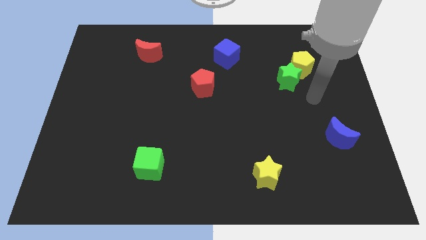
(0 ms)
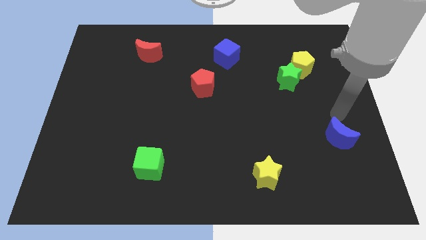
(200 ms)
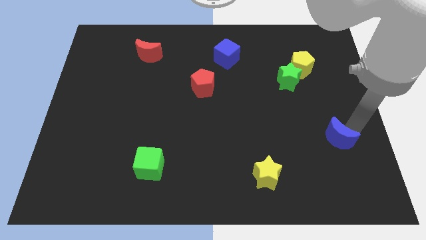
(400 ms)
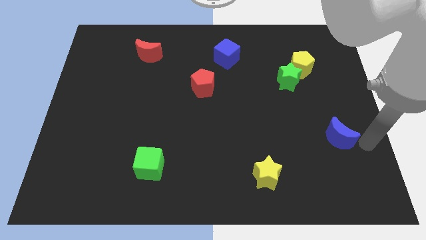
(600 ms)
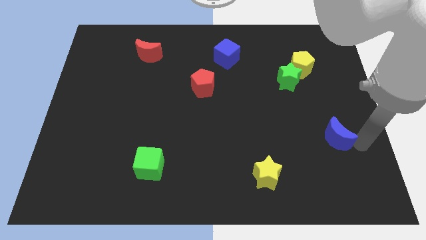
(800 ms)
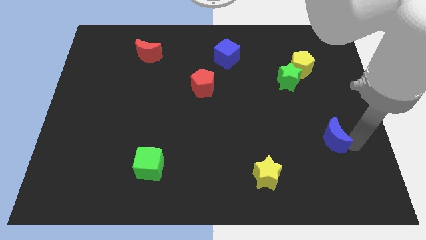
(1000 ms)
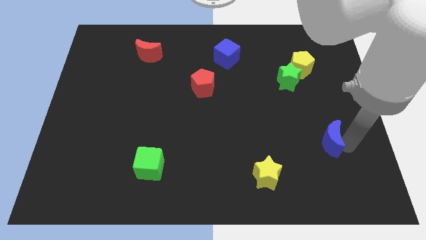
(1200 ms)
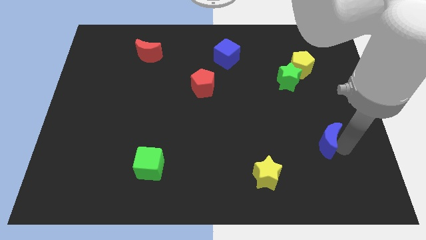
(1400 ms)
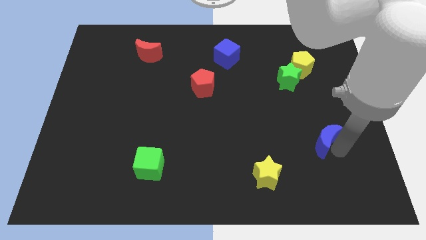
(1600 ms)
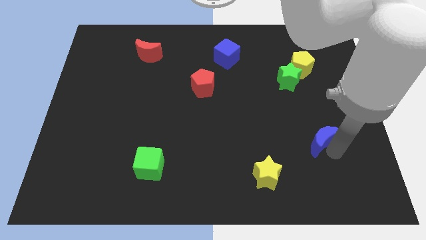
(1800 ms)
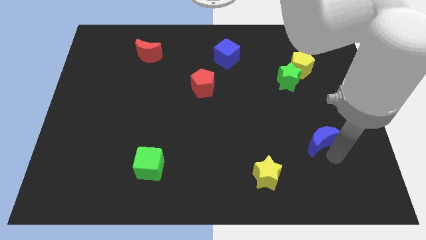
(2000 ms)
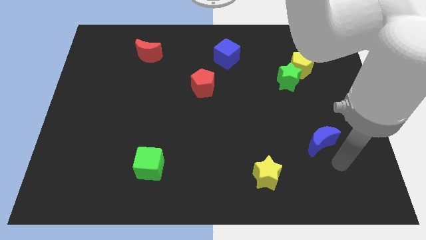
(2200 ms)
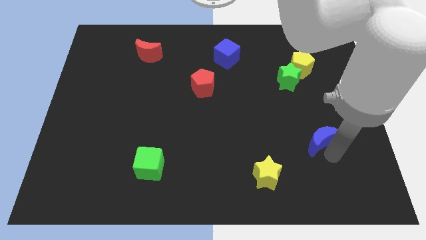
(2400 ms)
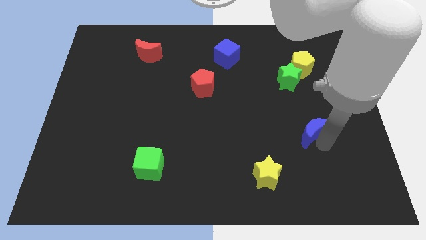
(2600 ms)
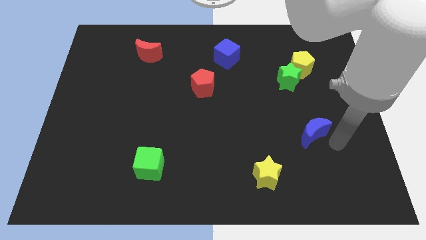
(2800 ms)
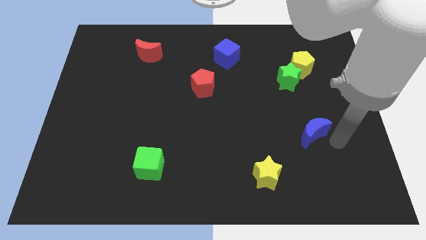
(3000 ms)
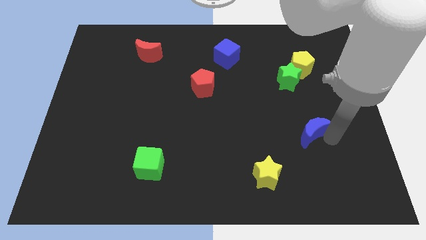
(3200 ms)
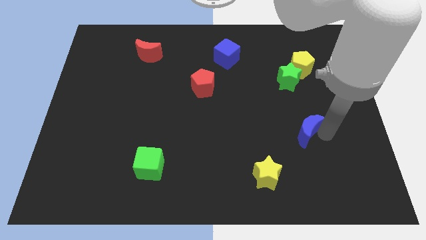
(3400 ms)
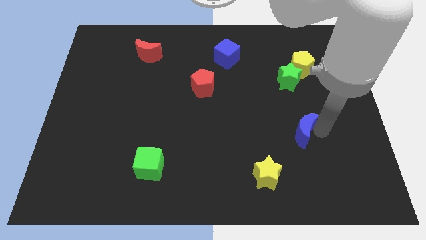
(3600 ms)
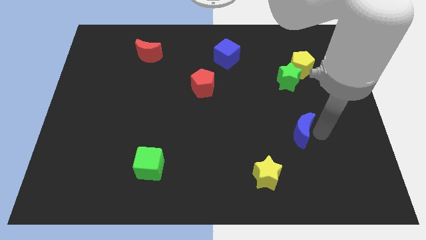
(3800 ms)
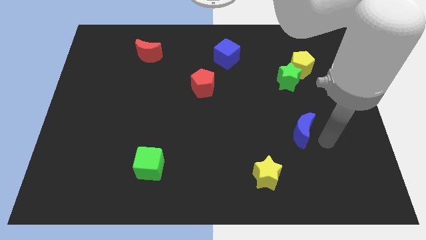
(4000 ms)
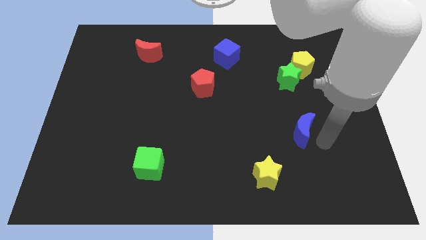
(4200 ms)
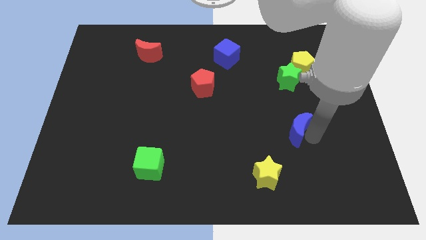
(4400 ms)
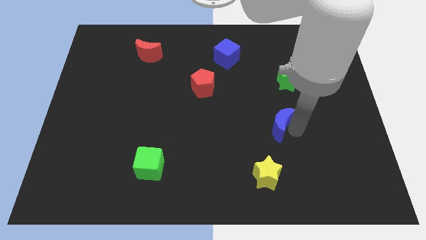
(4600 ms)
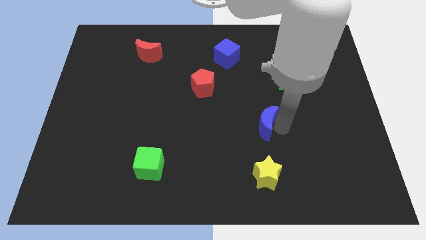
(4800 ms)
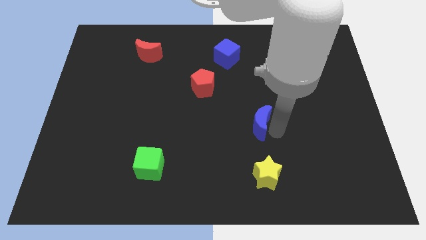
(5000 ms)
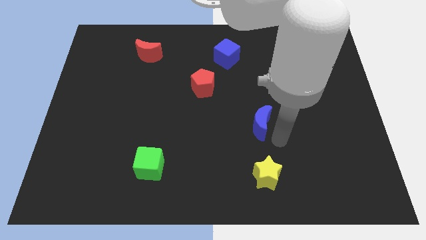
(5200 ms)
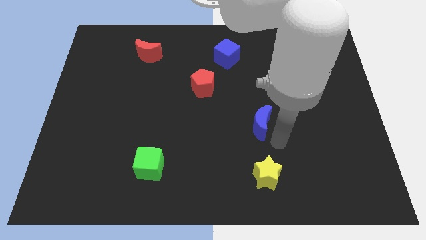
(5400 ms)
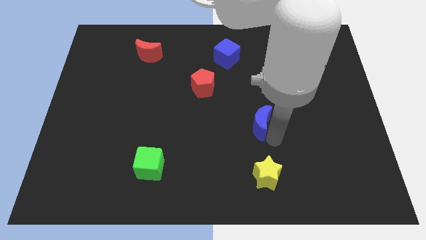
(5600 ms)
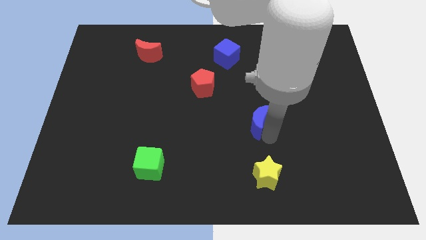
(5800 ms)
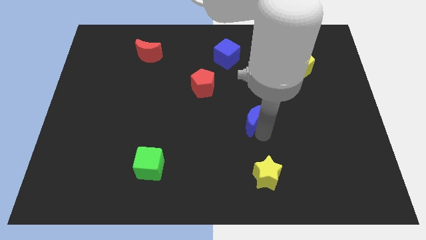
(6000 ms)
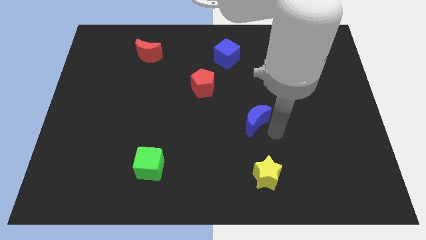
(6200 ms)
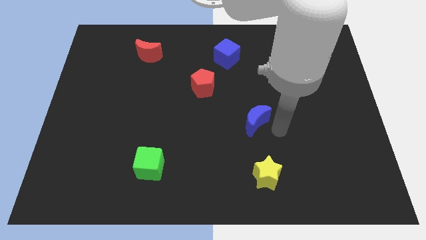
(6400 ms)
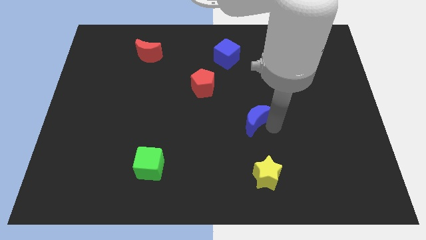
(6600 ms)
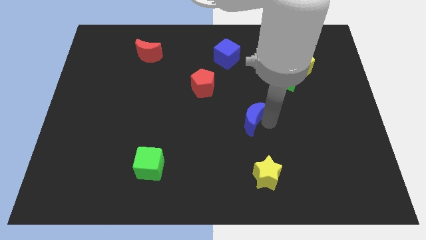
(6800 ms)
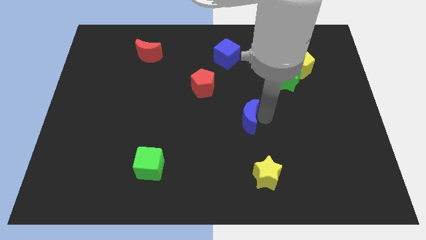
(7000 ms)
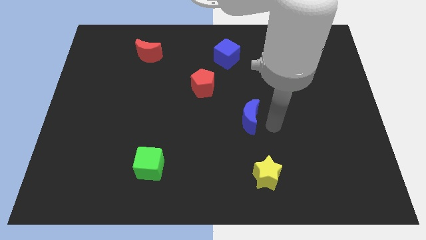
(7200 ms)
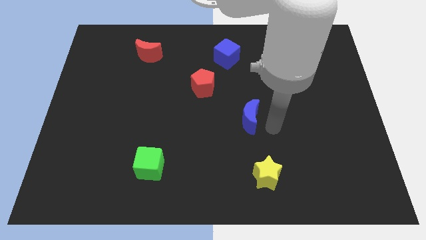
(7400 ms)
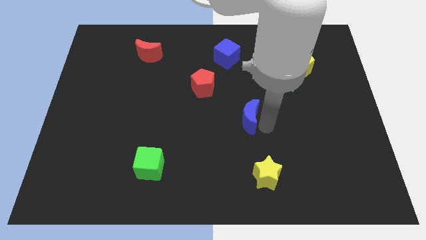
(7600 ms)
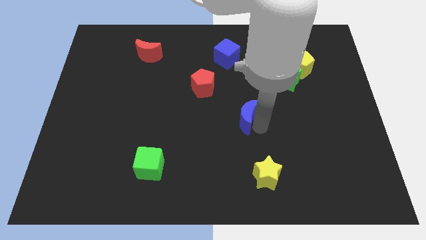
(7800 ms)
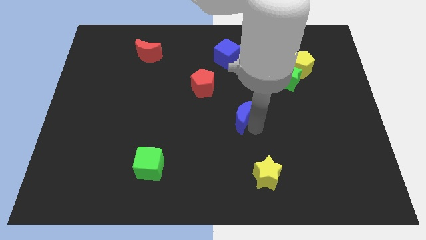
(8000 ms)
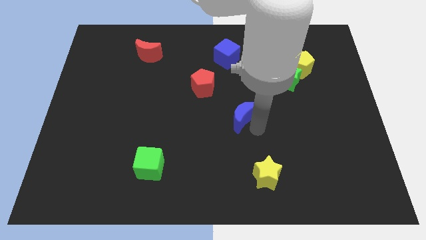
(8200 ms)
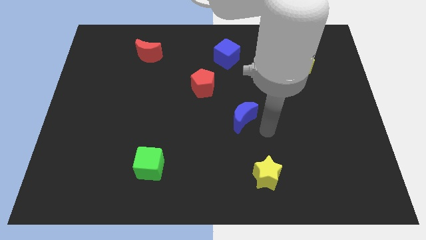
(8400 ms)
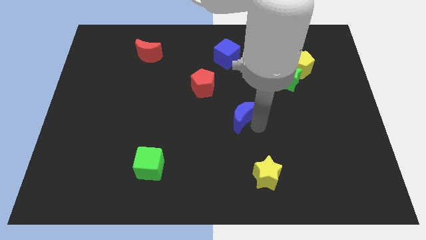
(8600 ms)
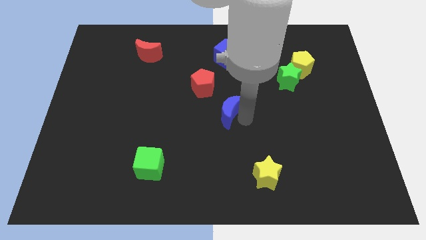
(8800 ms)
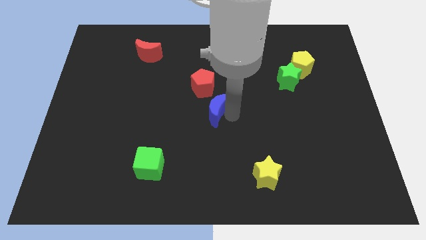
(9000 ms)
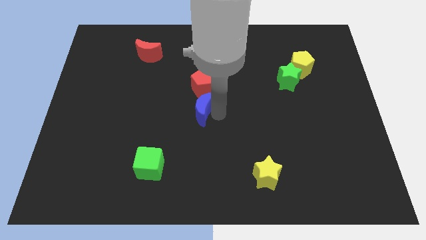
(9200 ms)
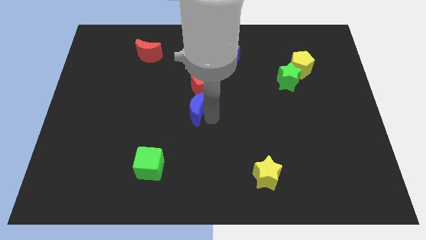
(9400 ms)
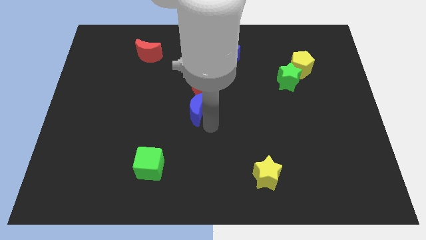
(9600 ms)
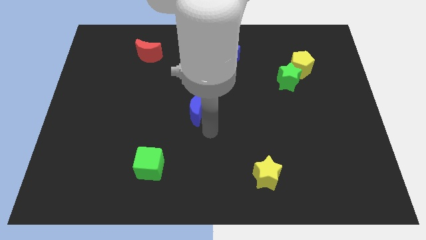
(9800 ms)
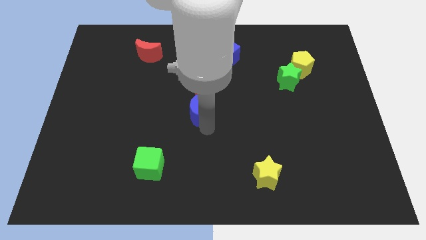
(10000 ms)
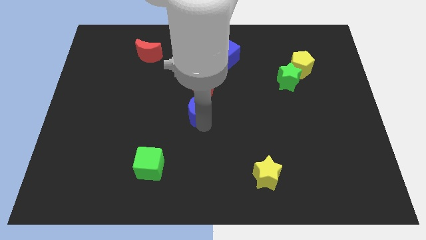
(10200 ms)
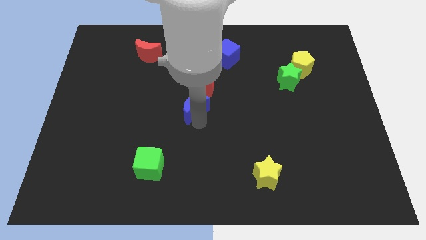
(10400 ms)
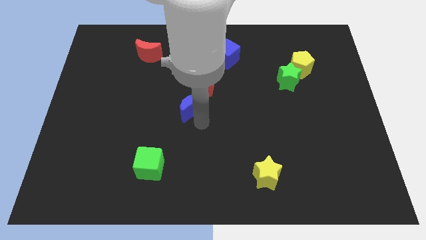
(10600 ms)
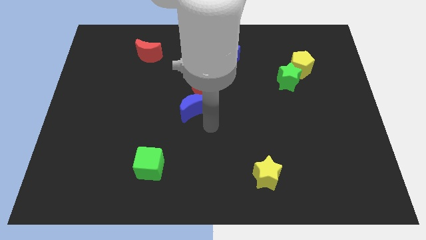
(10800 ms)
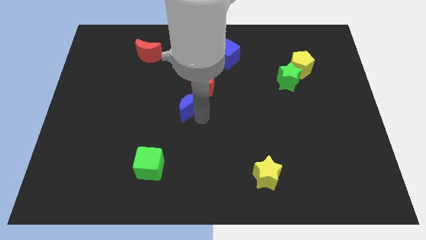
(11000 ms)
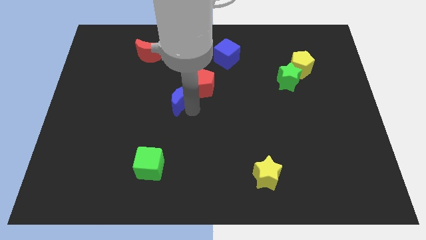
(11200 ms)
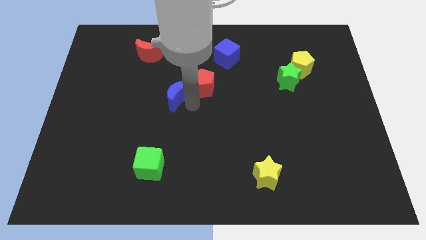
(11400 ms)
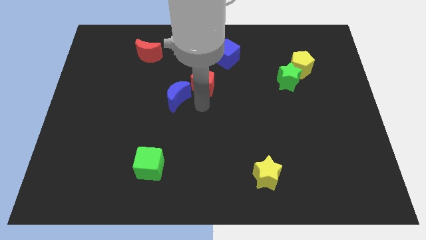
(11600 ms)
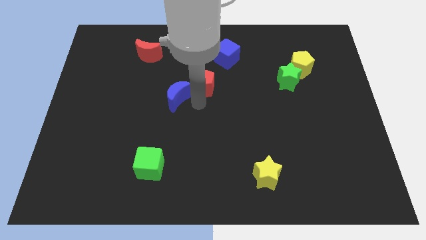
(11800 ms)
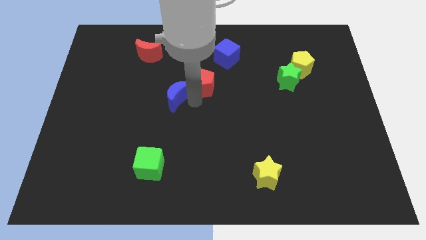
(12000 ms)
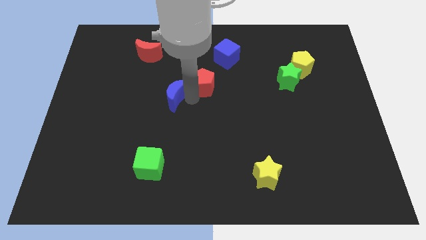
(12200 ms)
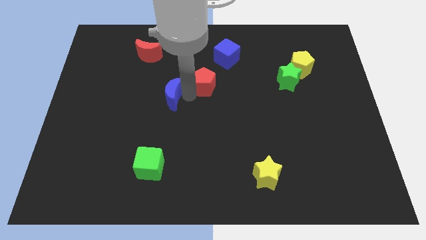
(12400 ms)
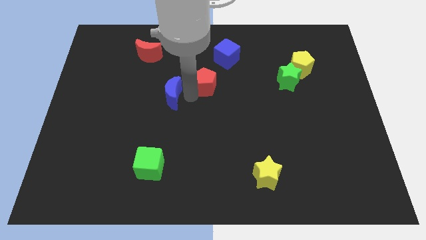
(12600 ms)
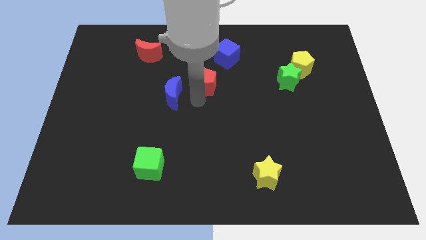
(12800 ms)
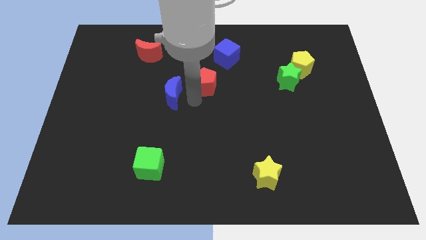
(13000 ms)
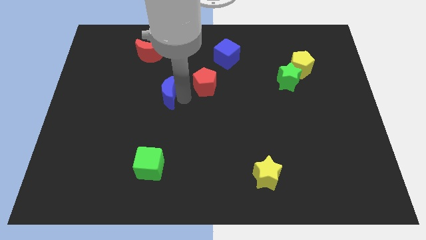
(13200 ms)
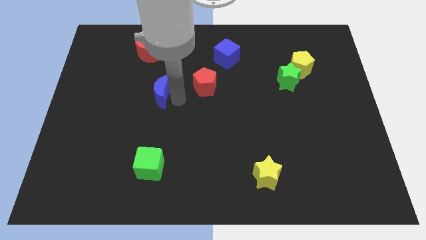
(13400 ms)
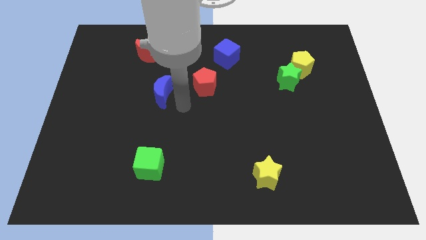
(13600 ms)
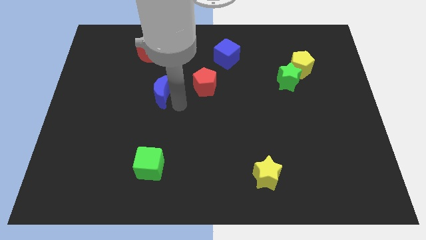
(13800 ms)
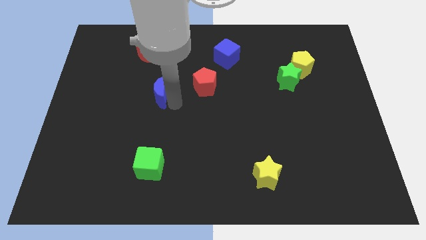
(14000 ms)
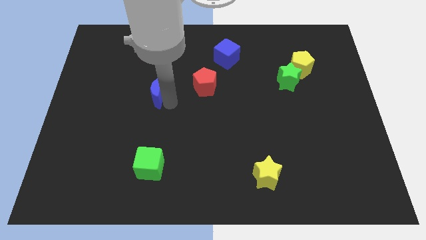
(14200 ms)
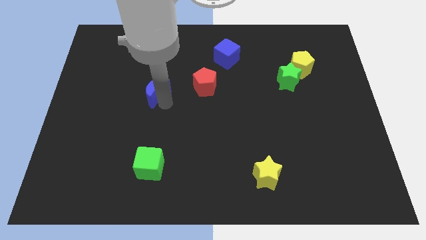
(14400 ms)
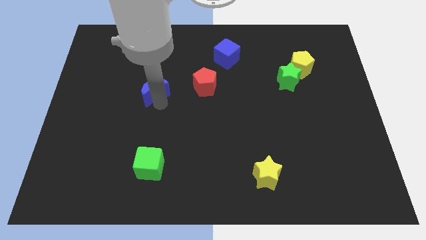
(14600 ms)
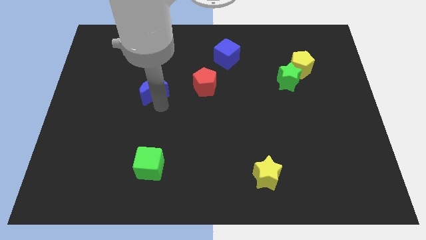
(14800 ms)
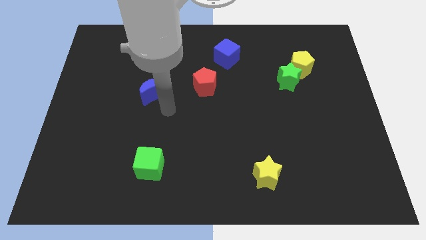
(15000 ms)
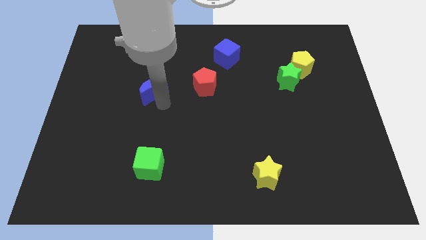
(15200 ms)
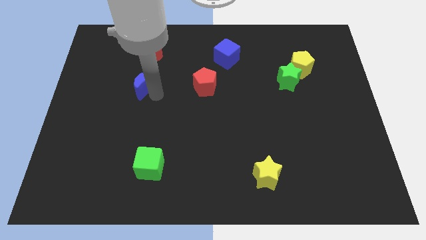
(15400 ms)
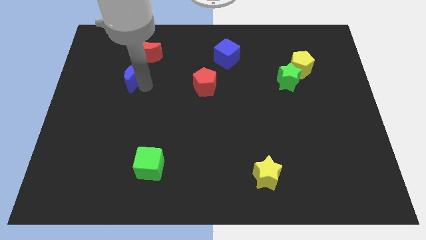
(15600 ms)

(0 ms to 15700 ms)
slide the blue moon to the bottom left side of the red moon
